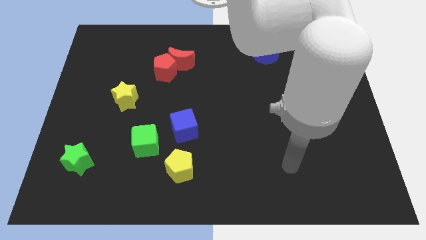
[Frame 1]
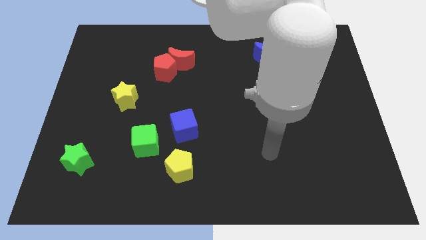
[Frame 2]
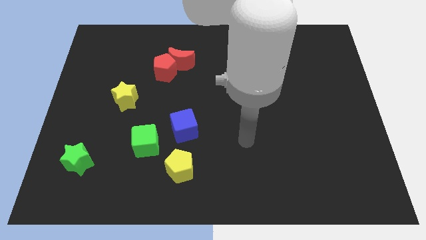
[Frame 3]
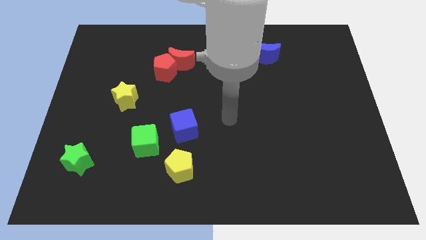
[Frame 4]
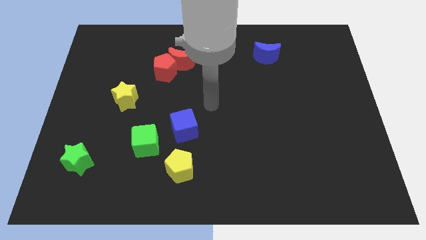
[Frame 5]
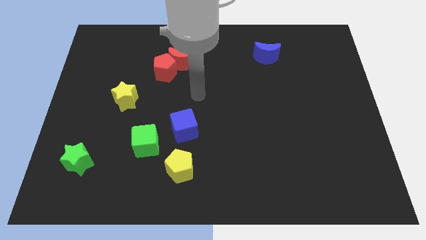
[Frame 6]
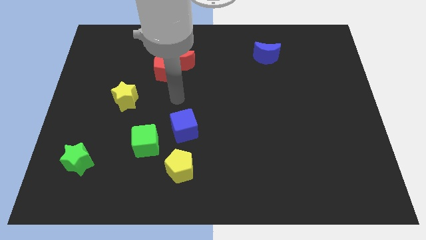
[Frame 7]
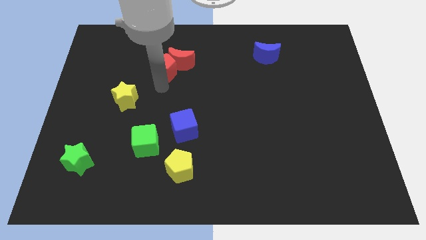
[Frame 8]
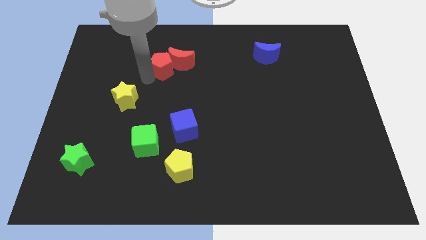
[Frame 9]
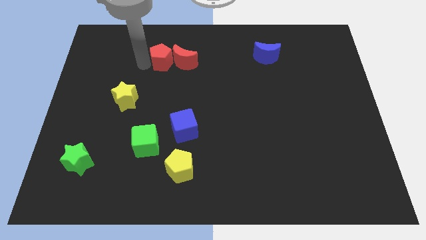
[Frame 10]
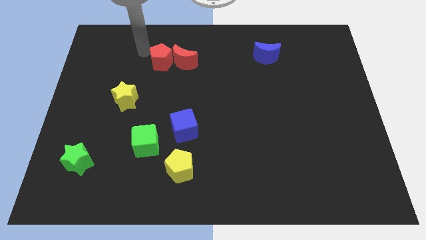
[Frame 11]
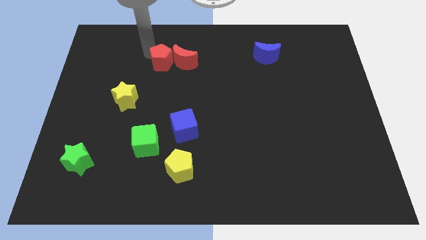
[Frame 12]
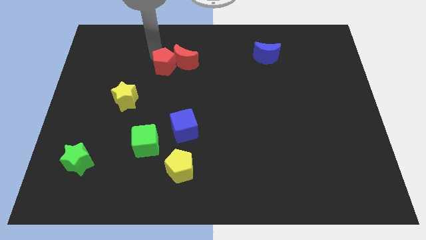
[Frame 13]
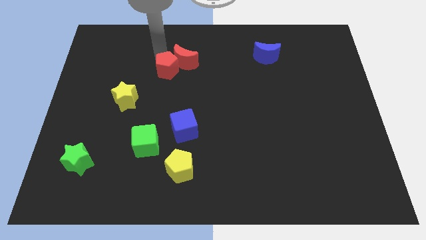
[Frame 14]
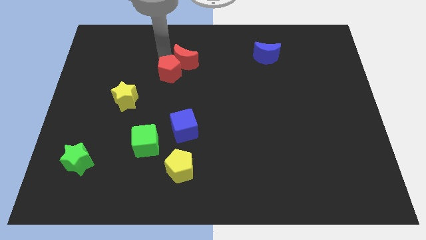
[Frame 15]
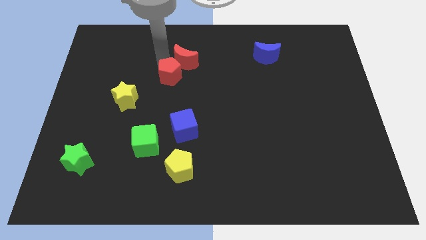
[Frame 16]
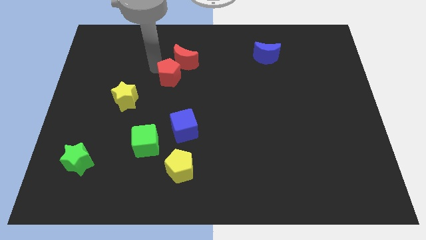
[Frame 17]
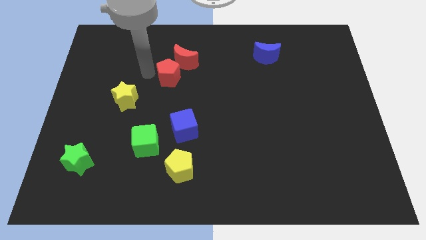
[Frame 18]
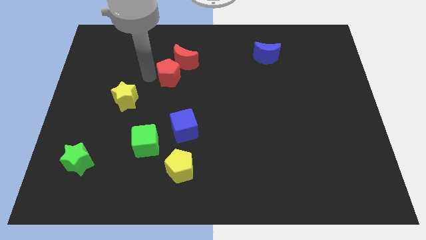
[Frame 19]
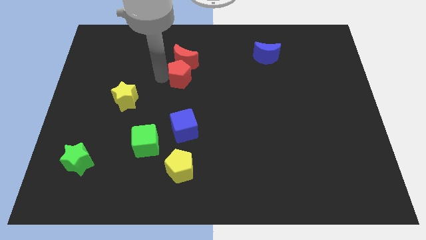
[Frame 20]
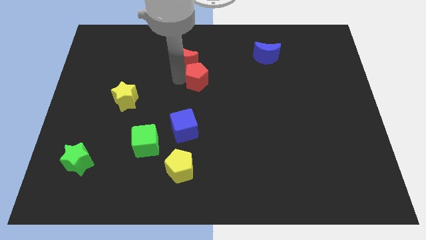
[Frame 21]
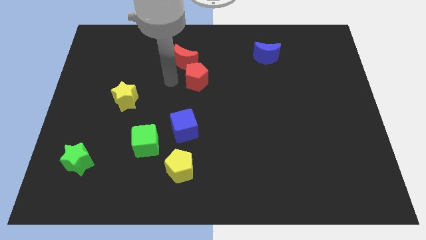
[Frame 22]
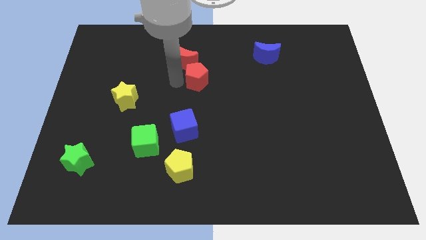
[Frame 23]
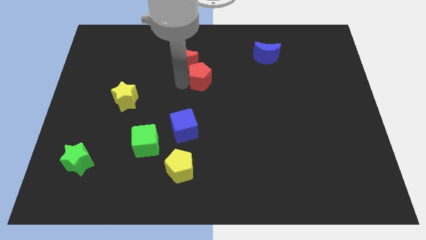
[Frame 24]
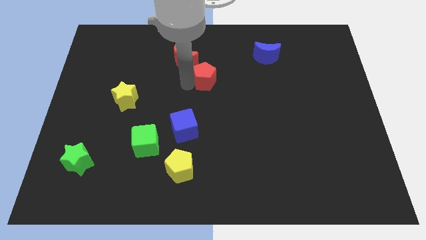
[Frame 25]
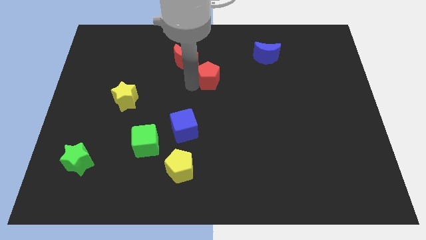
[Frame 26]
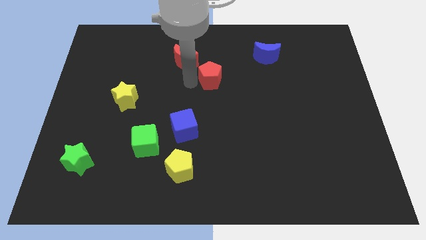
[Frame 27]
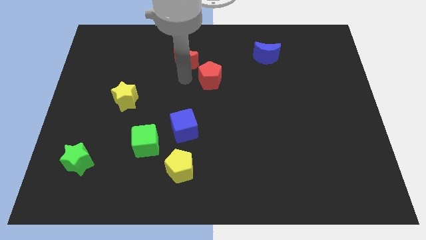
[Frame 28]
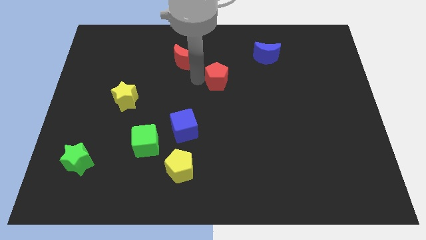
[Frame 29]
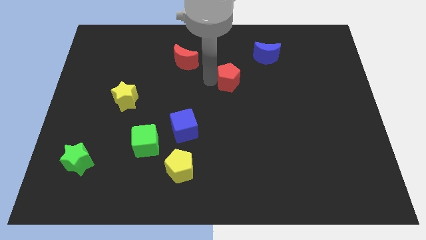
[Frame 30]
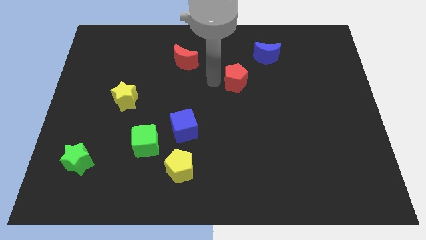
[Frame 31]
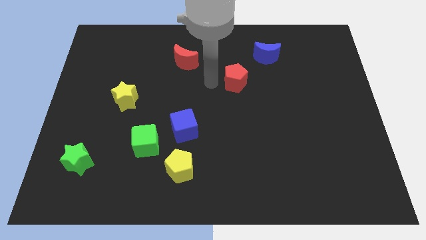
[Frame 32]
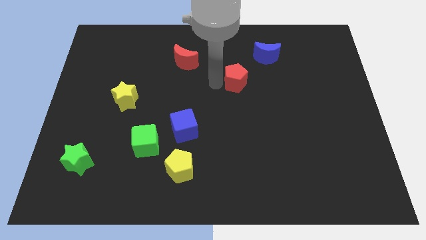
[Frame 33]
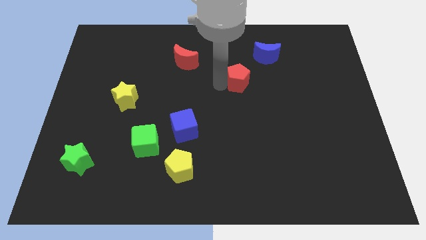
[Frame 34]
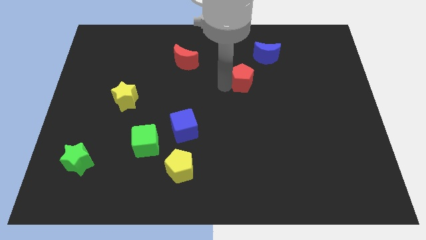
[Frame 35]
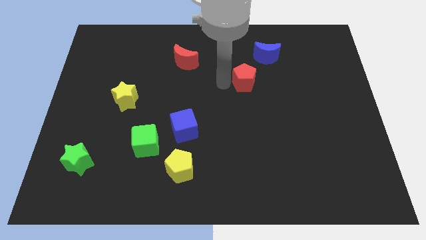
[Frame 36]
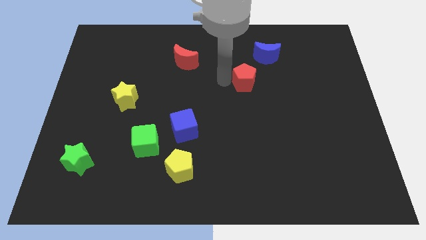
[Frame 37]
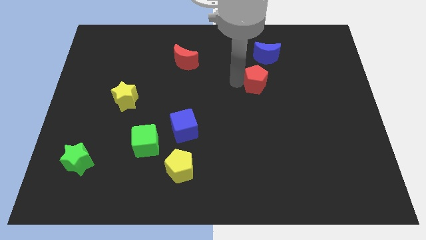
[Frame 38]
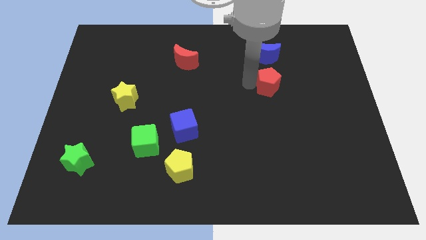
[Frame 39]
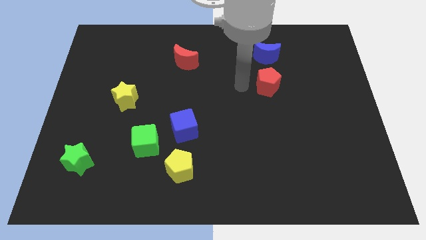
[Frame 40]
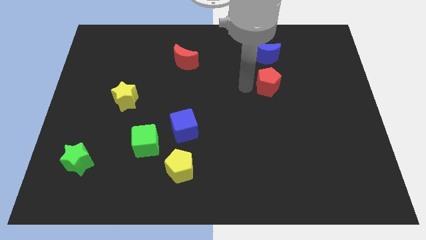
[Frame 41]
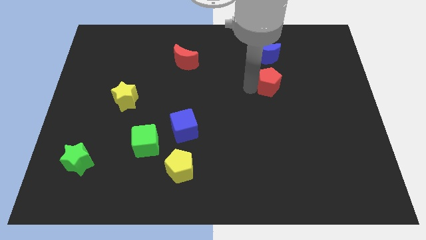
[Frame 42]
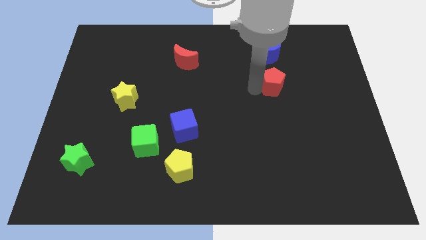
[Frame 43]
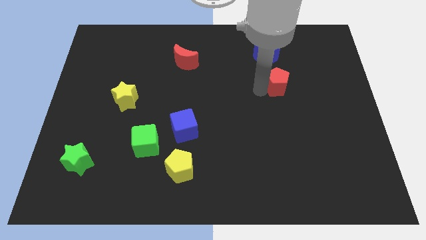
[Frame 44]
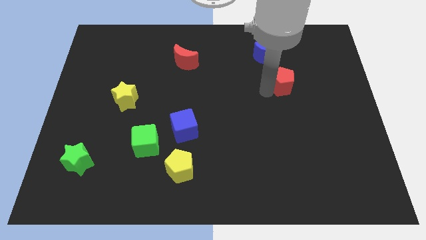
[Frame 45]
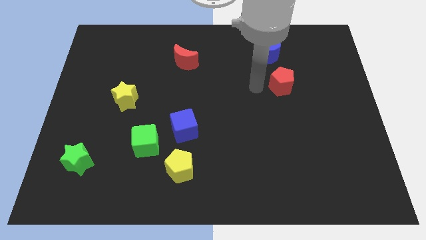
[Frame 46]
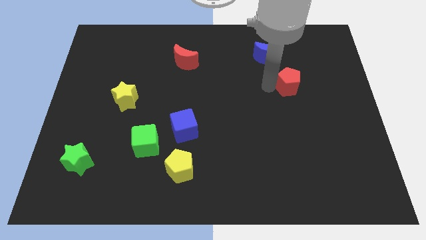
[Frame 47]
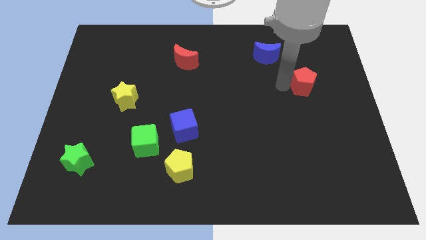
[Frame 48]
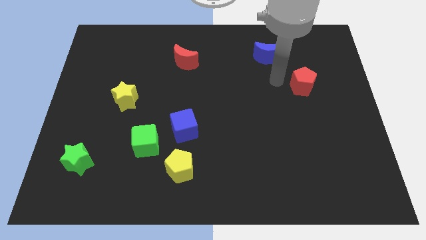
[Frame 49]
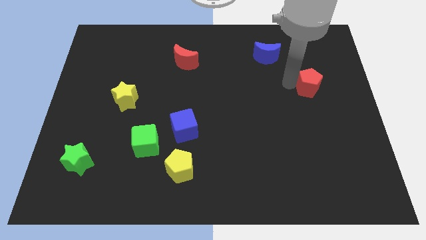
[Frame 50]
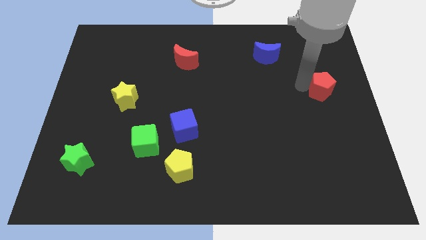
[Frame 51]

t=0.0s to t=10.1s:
move the red pentagon to the center right
